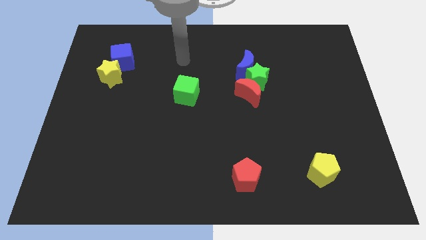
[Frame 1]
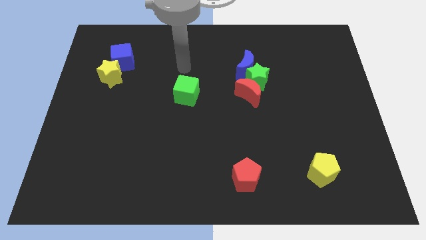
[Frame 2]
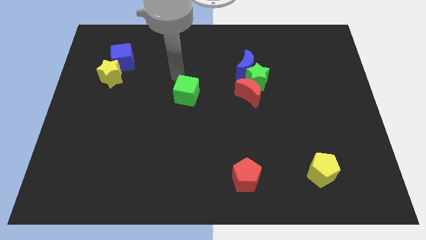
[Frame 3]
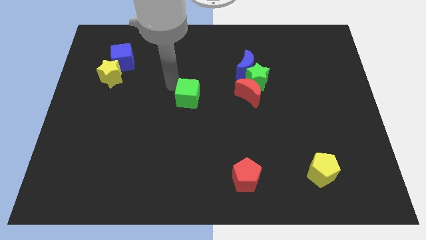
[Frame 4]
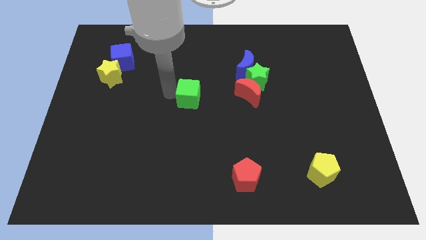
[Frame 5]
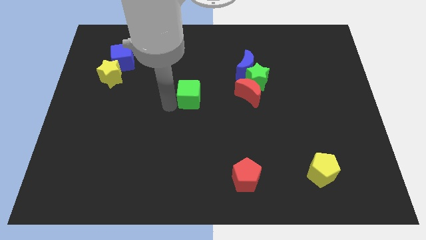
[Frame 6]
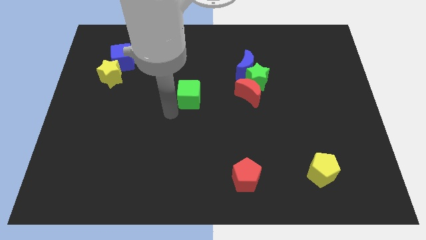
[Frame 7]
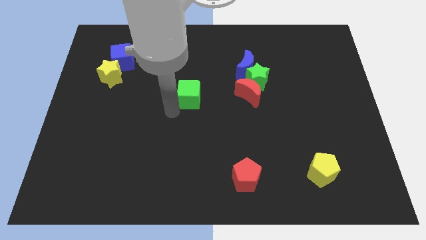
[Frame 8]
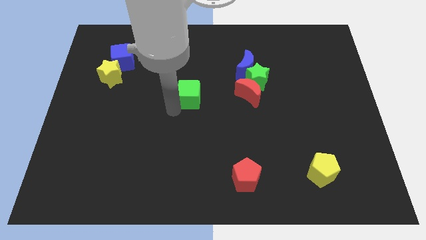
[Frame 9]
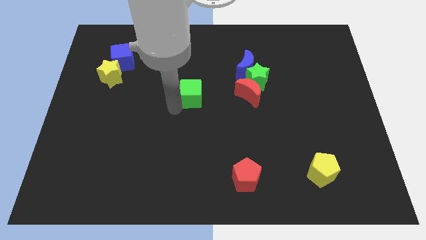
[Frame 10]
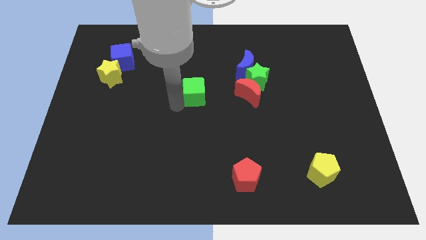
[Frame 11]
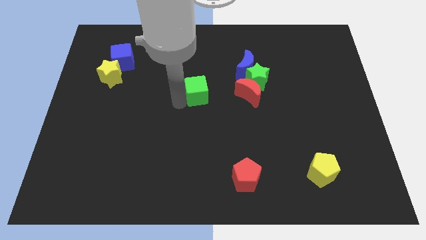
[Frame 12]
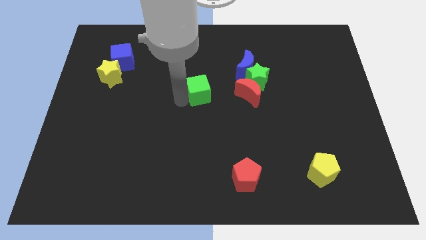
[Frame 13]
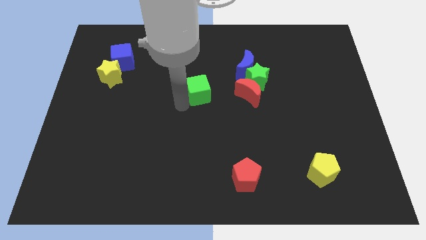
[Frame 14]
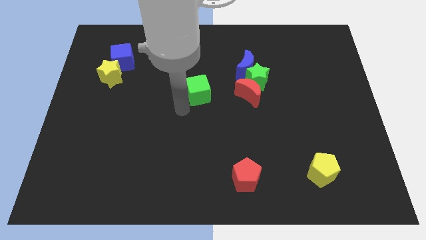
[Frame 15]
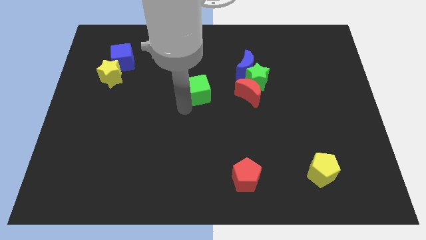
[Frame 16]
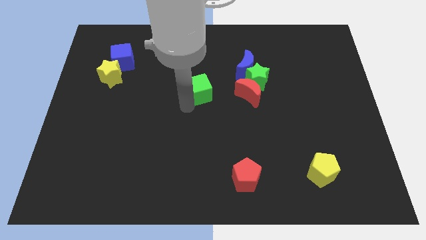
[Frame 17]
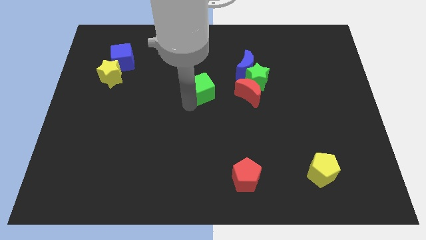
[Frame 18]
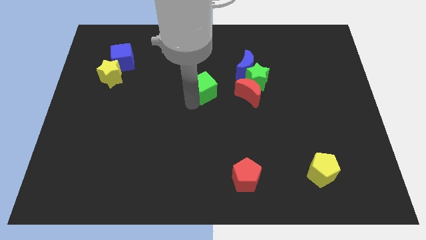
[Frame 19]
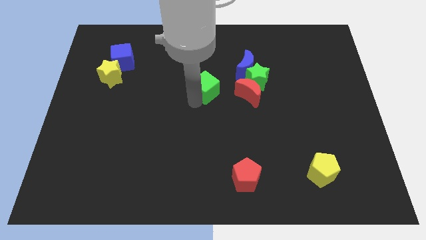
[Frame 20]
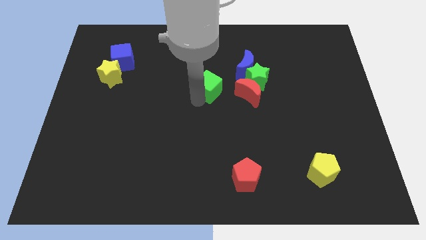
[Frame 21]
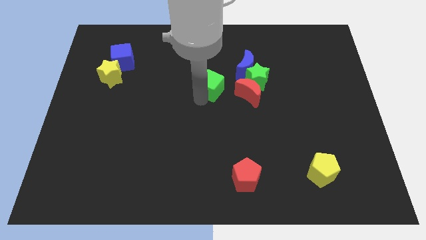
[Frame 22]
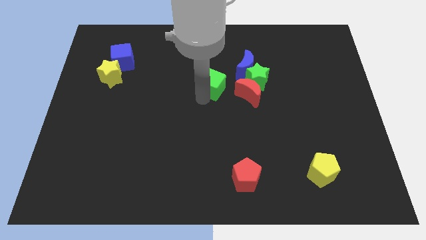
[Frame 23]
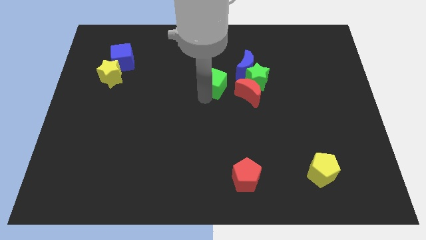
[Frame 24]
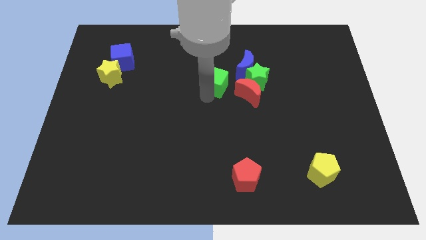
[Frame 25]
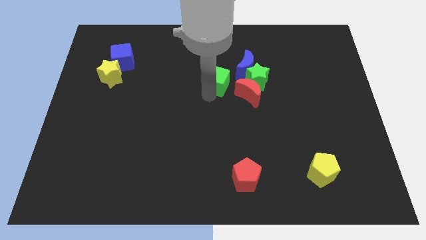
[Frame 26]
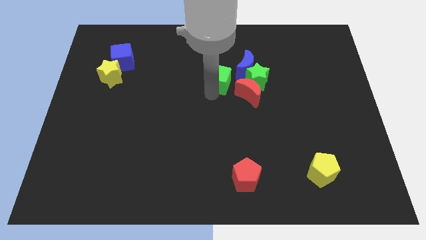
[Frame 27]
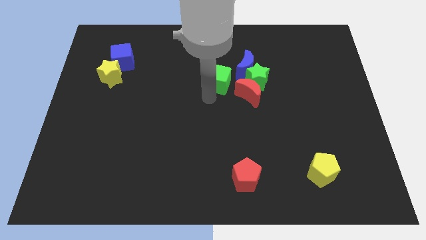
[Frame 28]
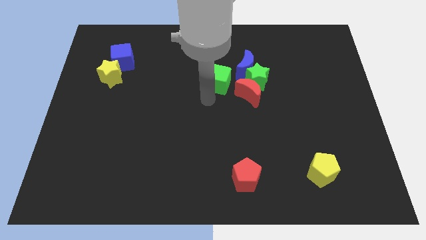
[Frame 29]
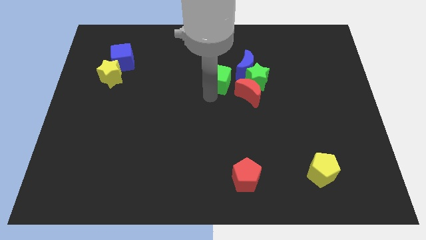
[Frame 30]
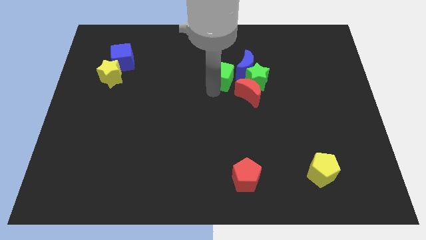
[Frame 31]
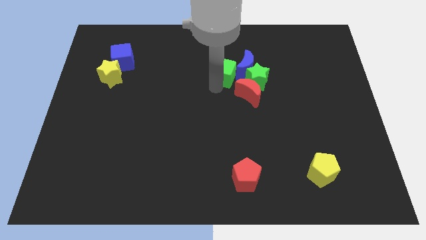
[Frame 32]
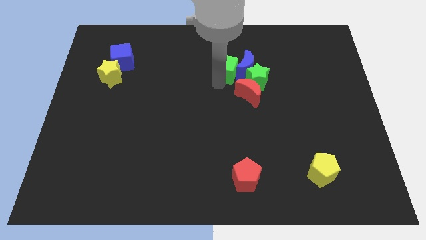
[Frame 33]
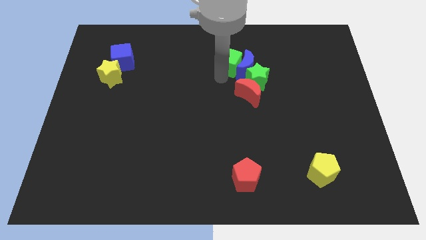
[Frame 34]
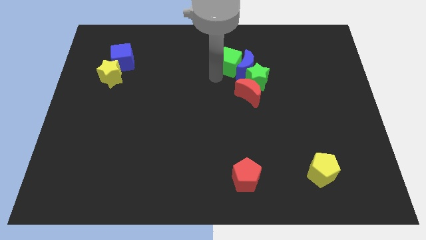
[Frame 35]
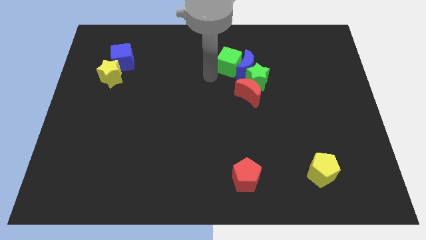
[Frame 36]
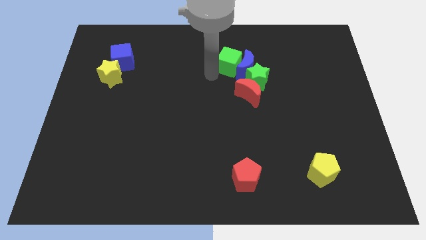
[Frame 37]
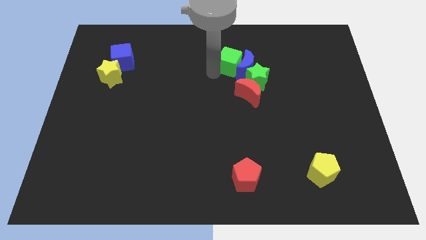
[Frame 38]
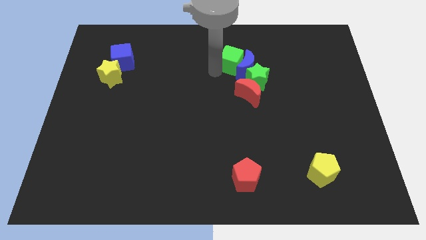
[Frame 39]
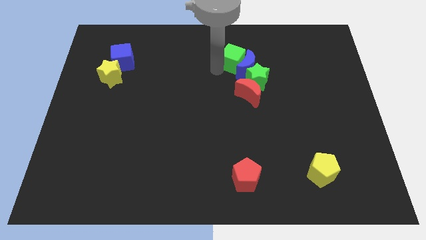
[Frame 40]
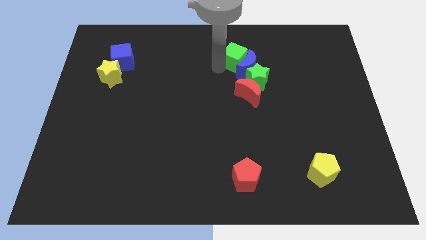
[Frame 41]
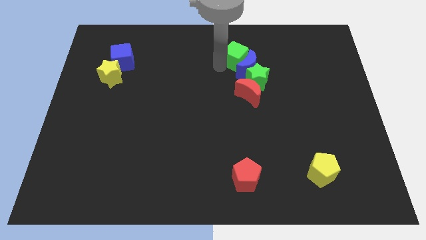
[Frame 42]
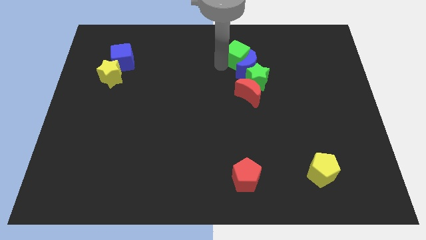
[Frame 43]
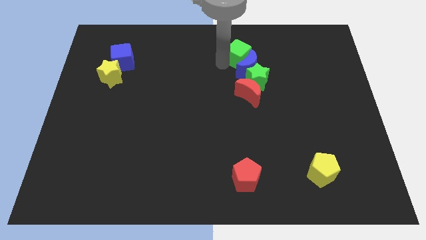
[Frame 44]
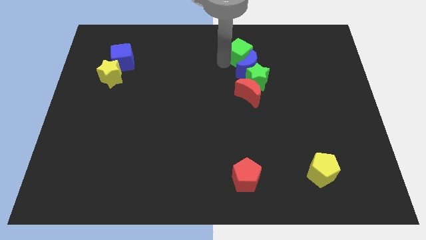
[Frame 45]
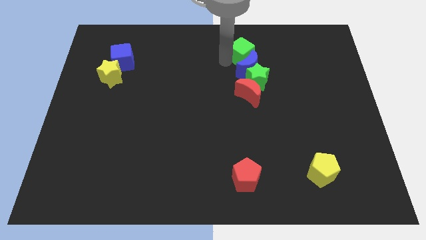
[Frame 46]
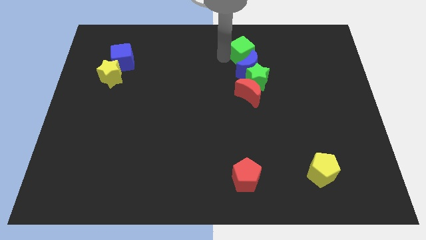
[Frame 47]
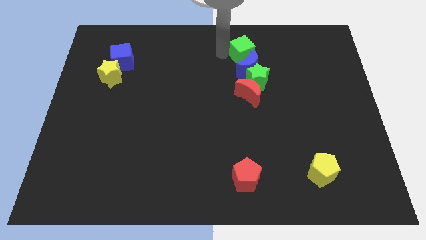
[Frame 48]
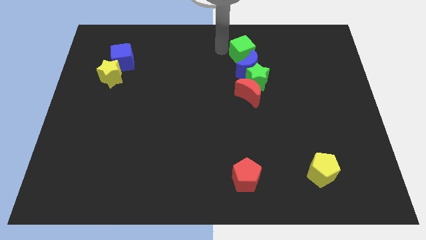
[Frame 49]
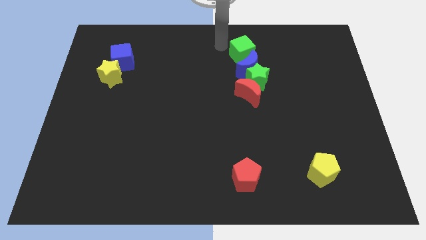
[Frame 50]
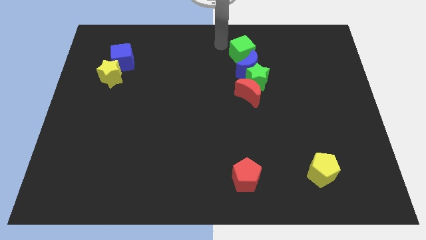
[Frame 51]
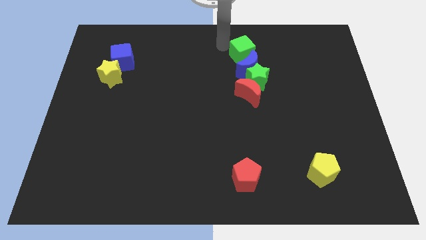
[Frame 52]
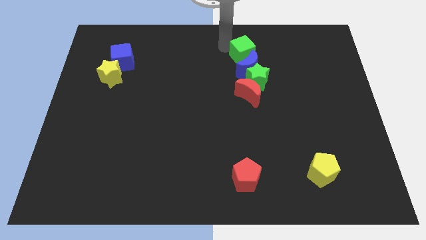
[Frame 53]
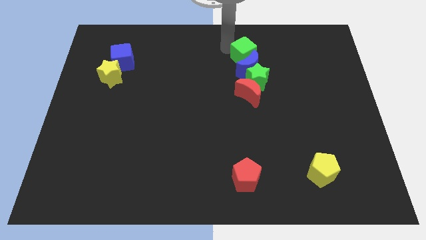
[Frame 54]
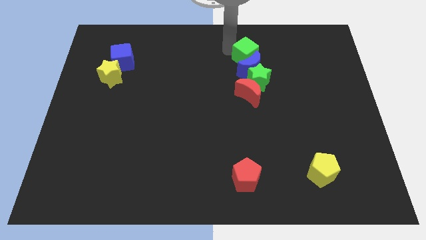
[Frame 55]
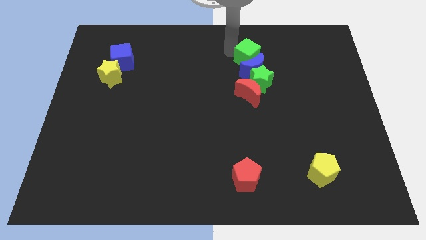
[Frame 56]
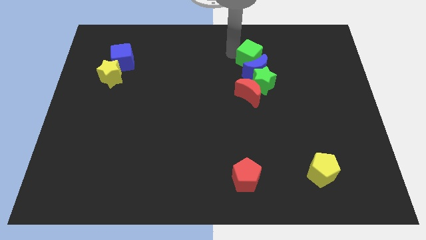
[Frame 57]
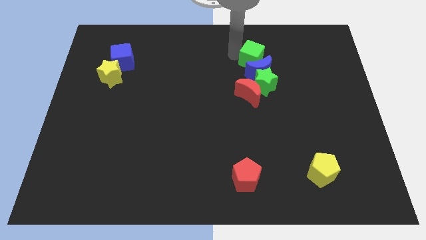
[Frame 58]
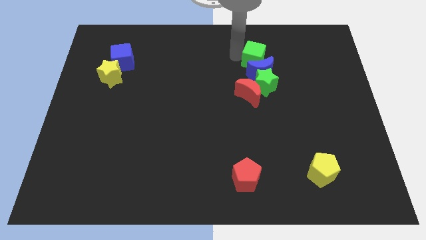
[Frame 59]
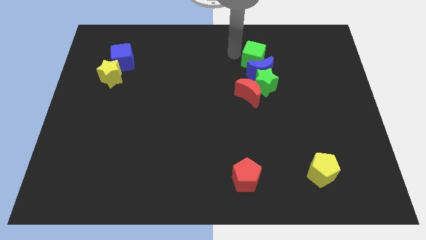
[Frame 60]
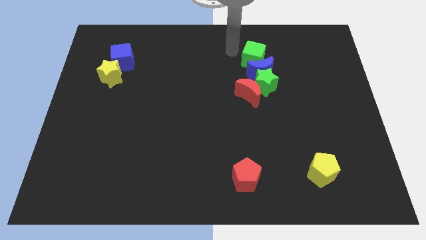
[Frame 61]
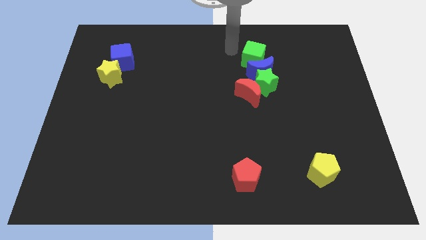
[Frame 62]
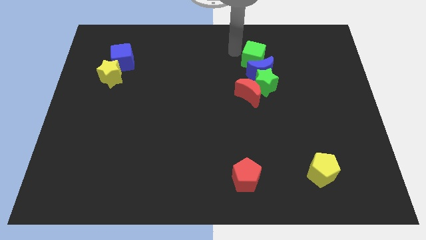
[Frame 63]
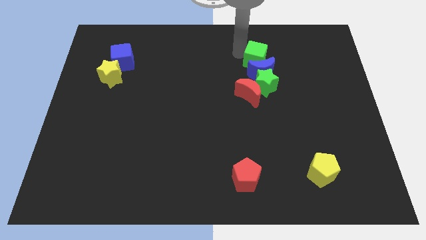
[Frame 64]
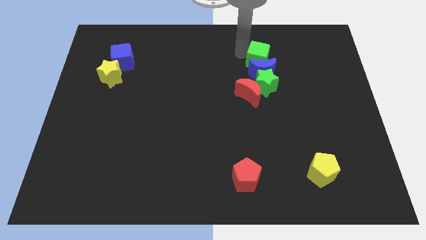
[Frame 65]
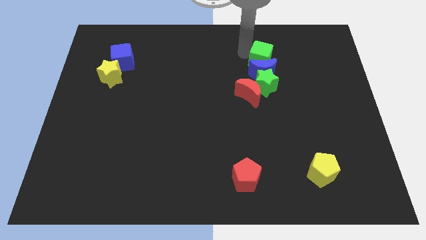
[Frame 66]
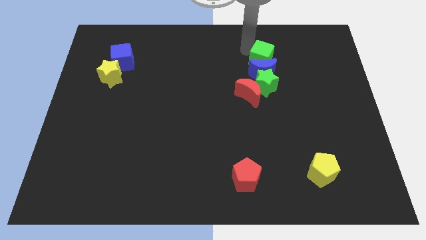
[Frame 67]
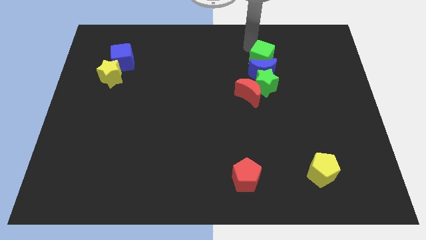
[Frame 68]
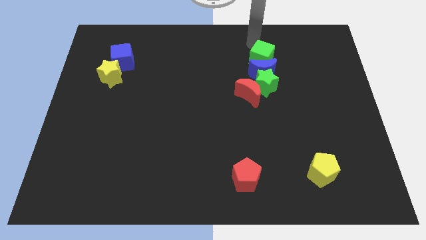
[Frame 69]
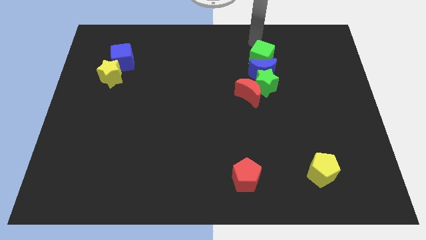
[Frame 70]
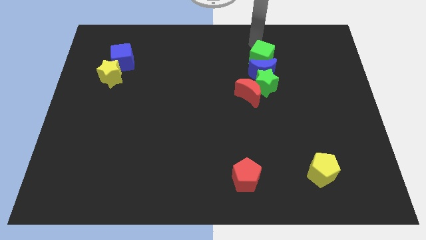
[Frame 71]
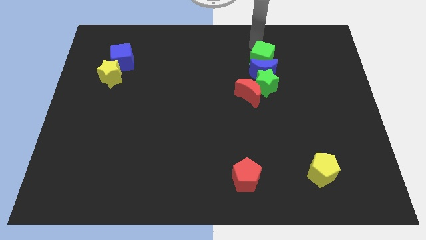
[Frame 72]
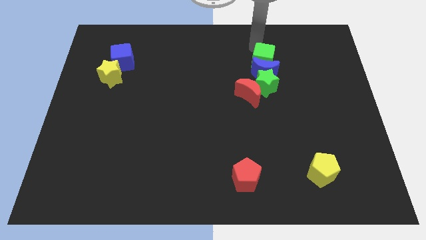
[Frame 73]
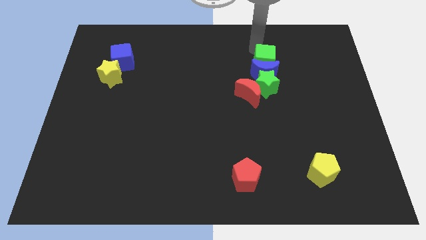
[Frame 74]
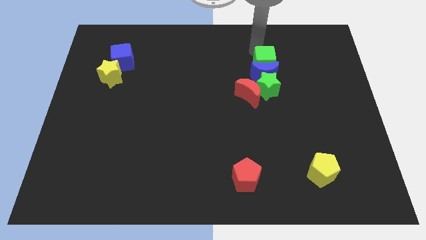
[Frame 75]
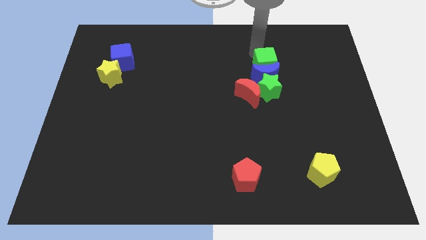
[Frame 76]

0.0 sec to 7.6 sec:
put the green cube to the top right side of the red moon
